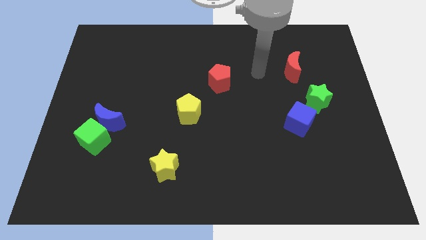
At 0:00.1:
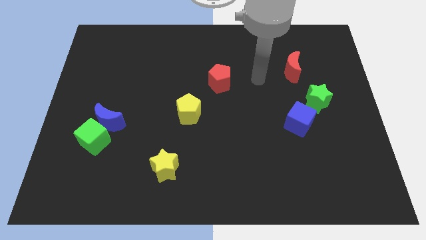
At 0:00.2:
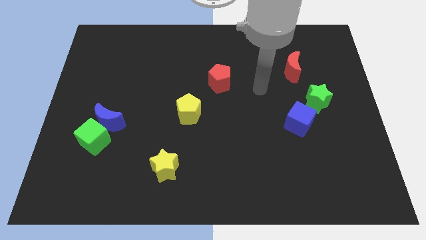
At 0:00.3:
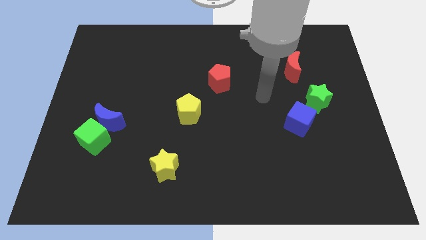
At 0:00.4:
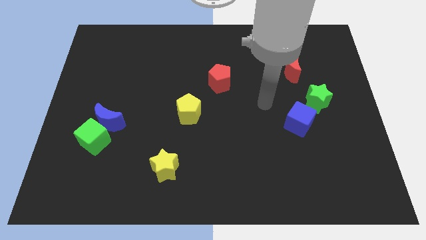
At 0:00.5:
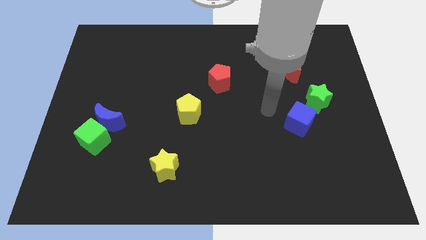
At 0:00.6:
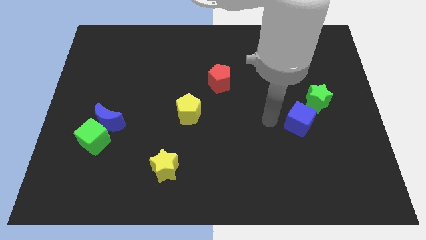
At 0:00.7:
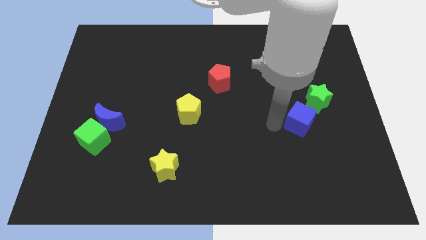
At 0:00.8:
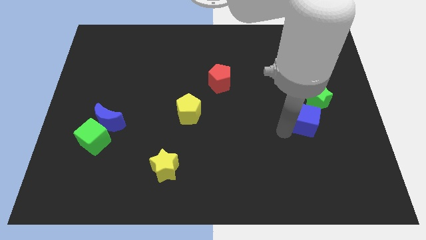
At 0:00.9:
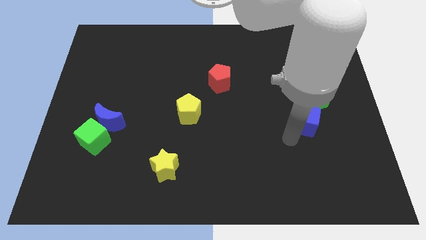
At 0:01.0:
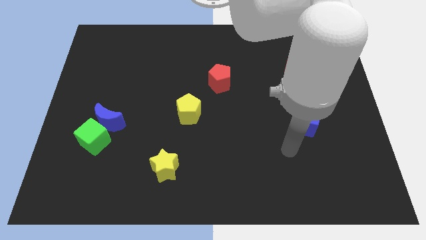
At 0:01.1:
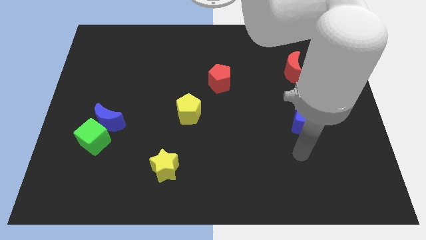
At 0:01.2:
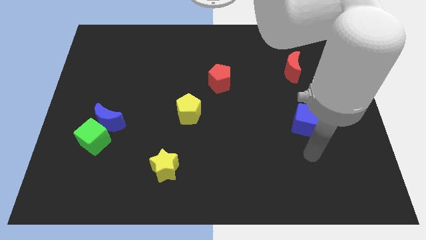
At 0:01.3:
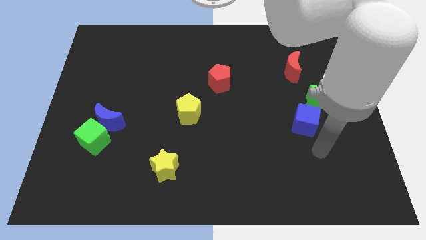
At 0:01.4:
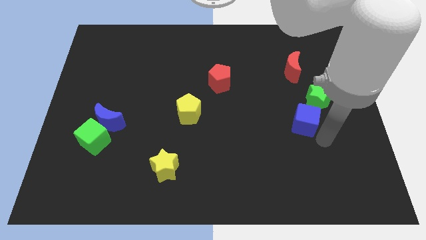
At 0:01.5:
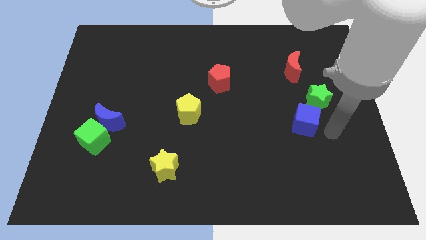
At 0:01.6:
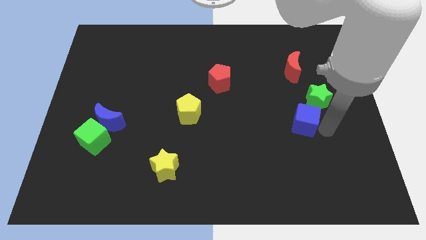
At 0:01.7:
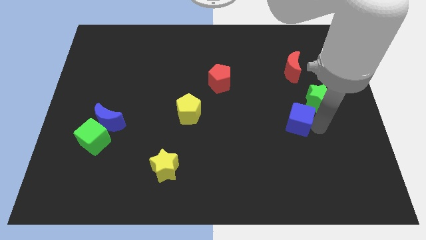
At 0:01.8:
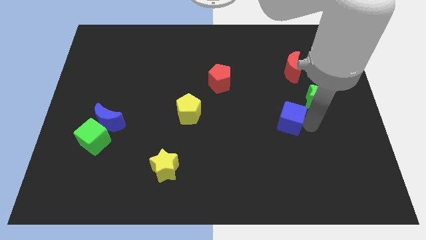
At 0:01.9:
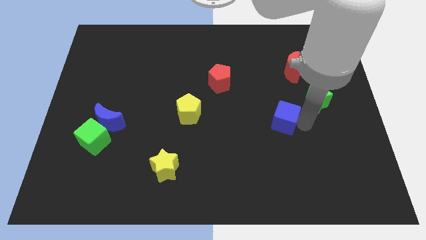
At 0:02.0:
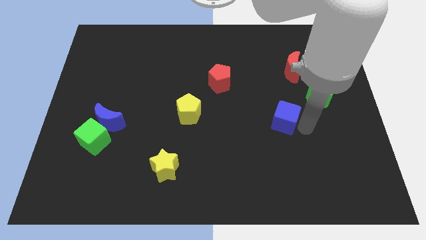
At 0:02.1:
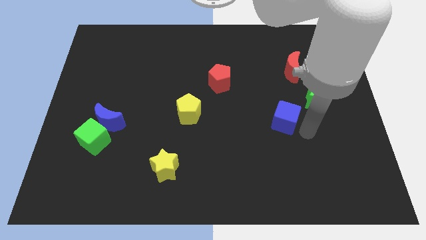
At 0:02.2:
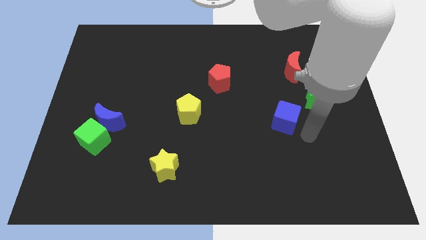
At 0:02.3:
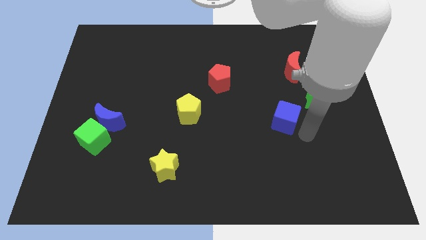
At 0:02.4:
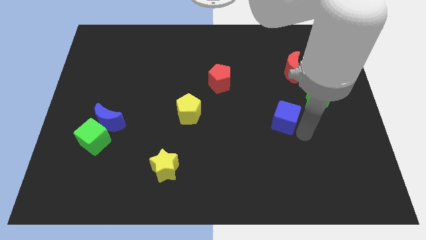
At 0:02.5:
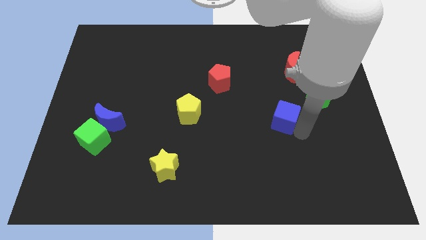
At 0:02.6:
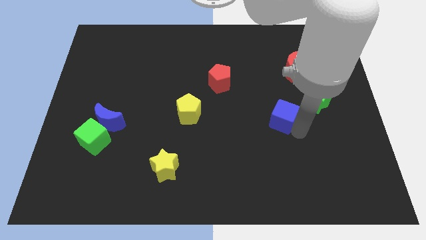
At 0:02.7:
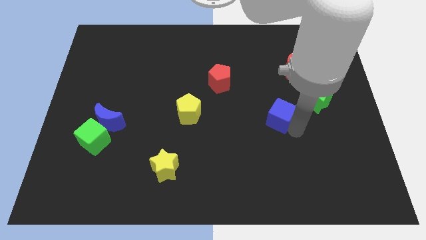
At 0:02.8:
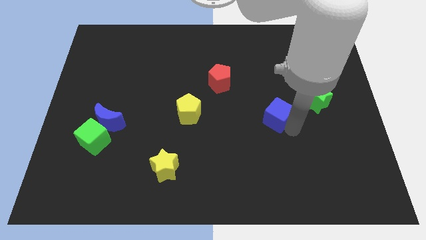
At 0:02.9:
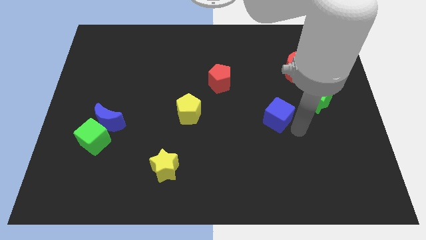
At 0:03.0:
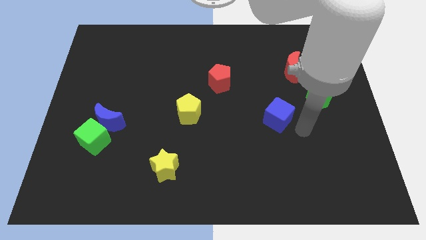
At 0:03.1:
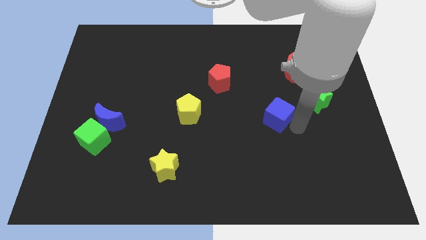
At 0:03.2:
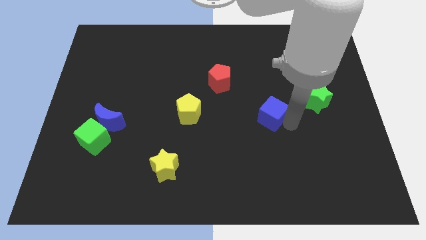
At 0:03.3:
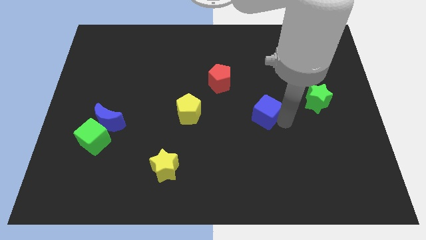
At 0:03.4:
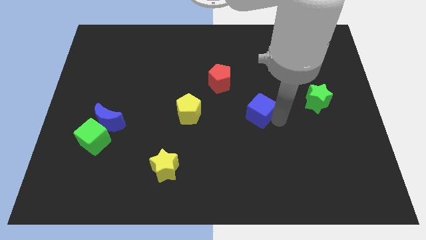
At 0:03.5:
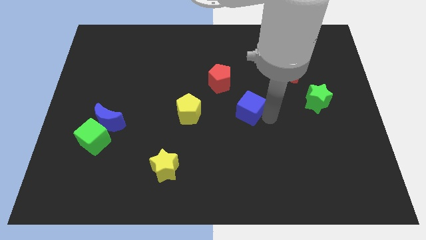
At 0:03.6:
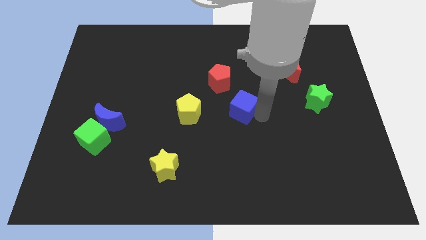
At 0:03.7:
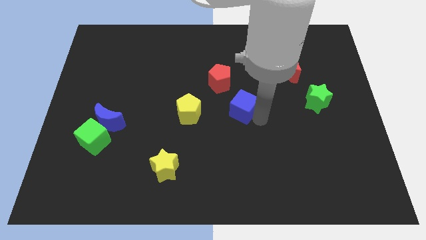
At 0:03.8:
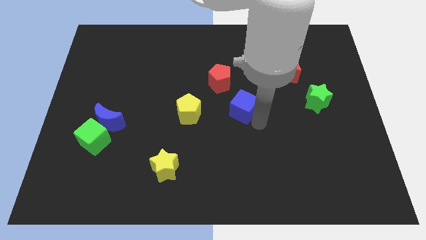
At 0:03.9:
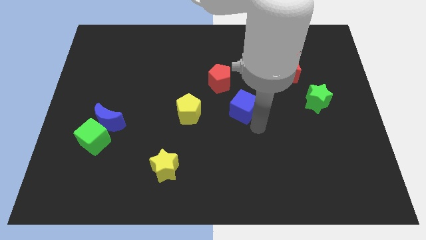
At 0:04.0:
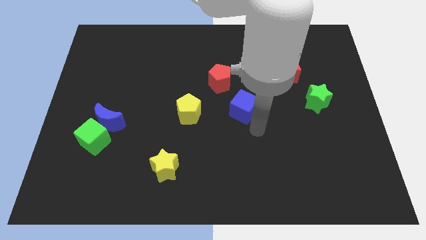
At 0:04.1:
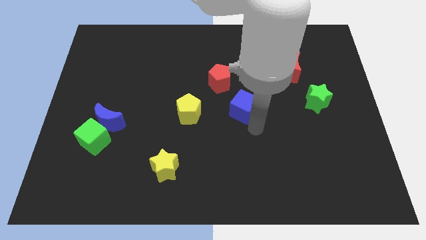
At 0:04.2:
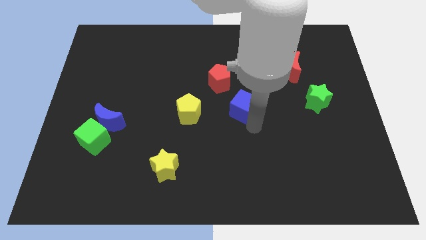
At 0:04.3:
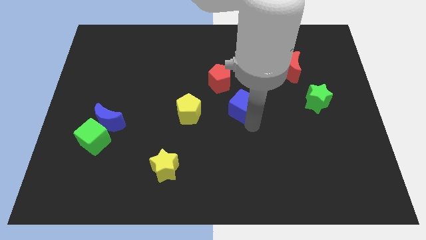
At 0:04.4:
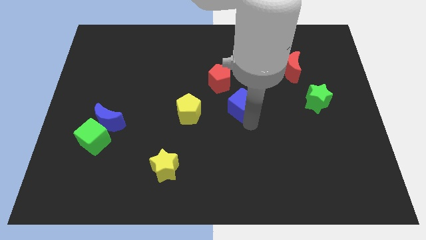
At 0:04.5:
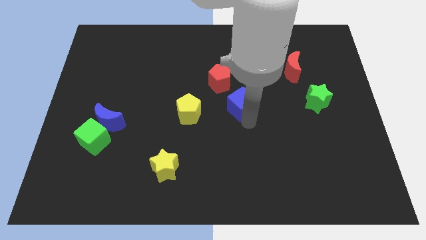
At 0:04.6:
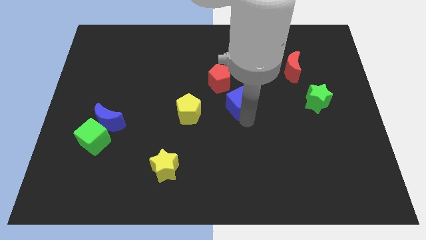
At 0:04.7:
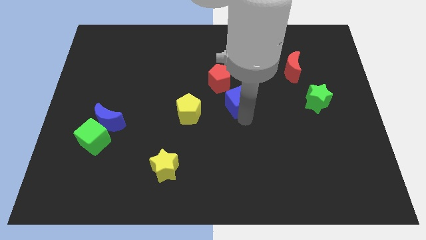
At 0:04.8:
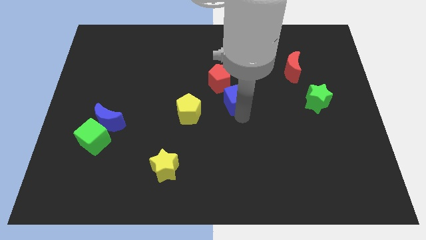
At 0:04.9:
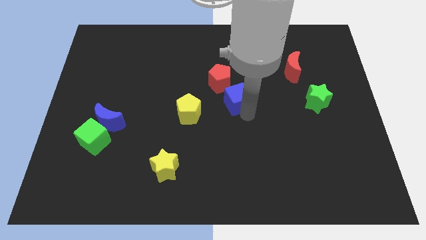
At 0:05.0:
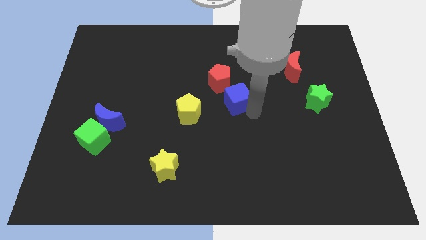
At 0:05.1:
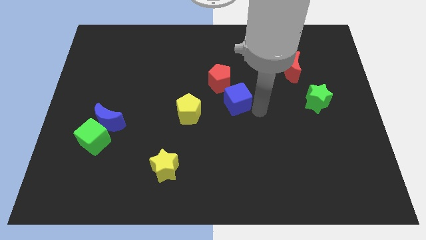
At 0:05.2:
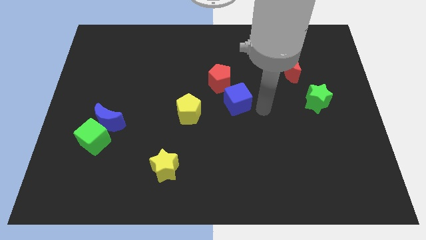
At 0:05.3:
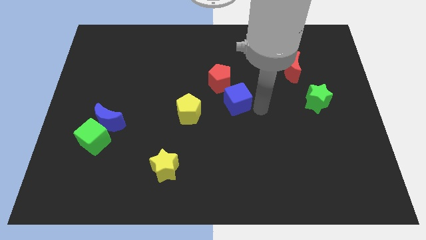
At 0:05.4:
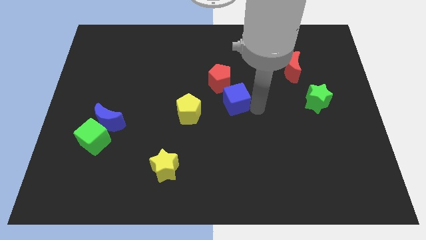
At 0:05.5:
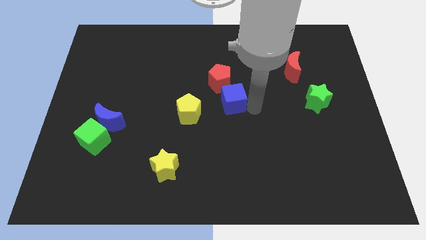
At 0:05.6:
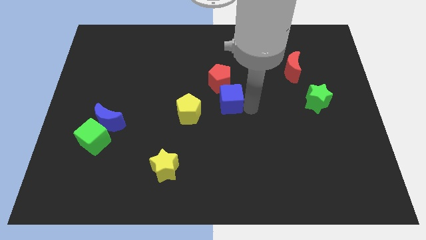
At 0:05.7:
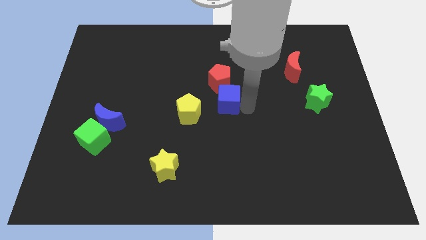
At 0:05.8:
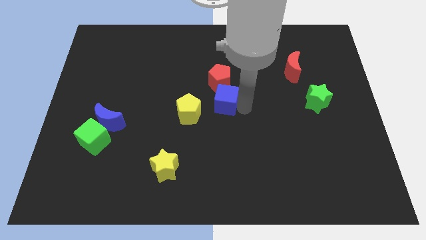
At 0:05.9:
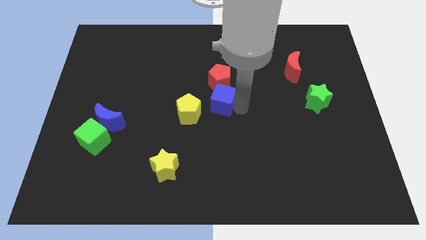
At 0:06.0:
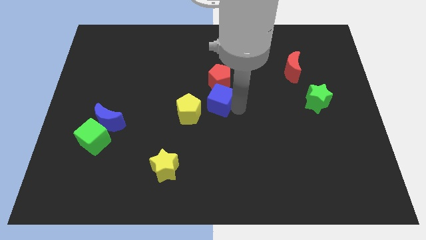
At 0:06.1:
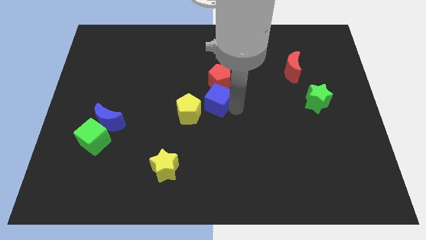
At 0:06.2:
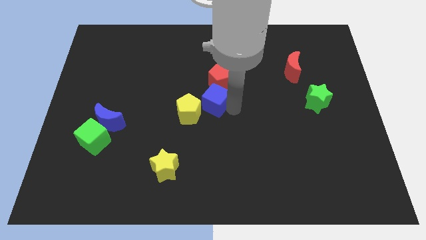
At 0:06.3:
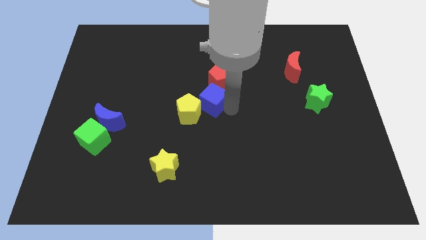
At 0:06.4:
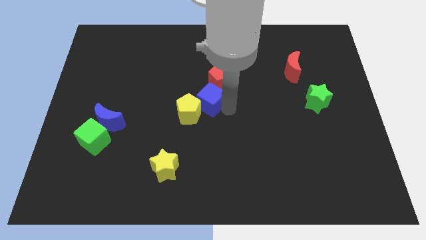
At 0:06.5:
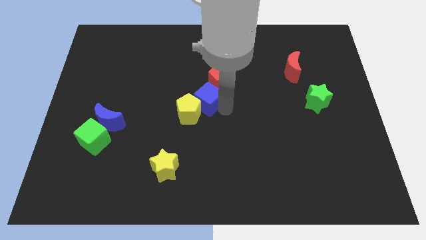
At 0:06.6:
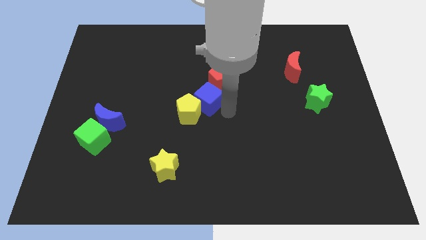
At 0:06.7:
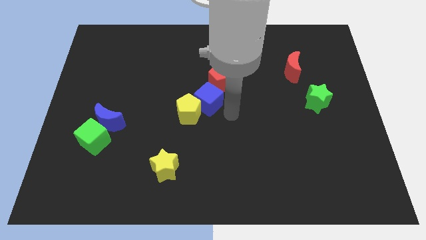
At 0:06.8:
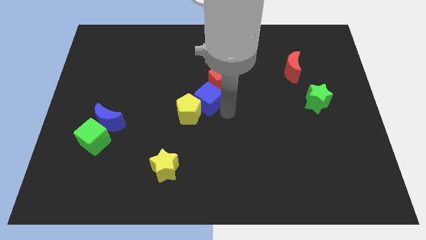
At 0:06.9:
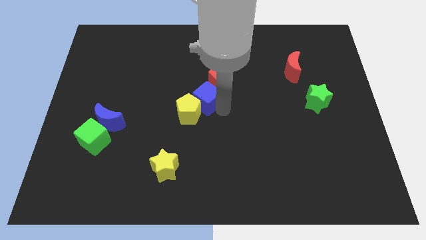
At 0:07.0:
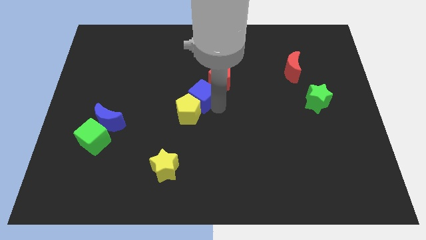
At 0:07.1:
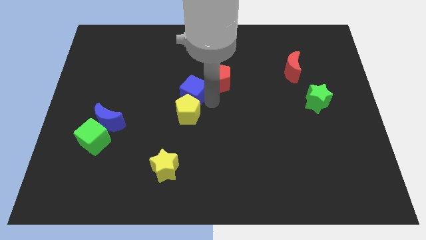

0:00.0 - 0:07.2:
move the blue cube to the top left side of the yellow pentagon

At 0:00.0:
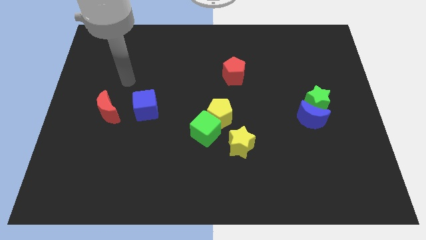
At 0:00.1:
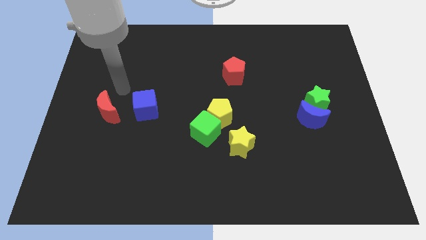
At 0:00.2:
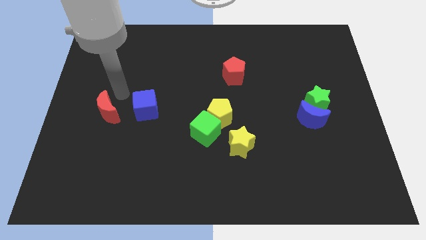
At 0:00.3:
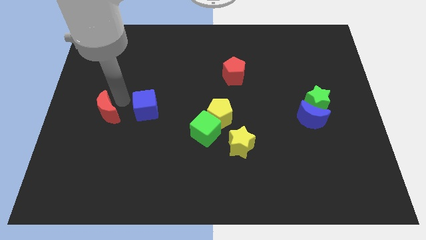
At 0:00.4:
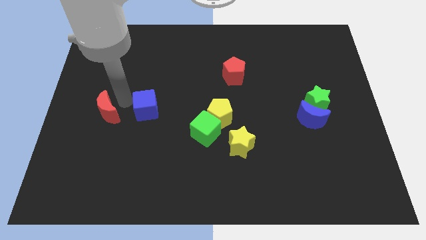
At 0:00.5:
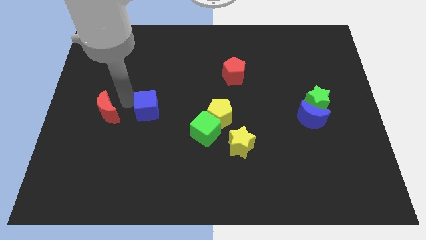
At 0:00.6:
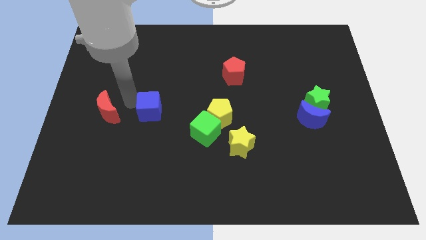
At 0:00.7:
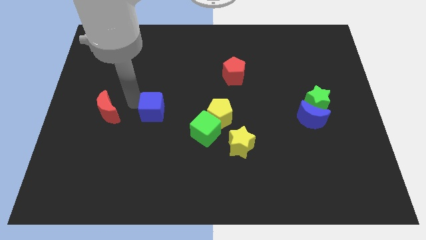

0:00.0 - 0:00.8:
push the blue cube to the left of the yellow pentagon

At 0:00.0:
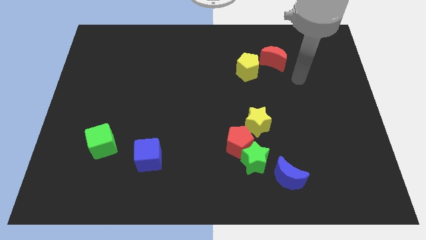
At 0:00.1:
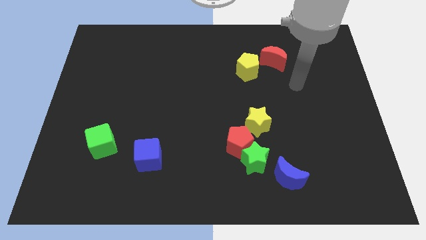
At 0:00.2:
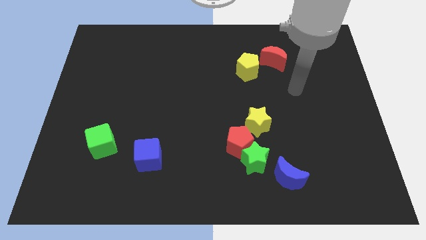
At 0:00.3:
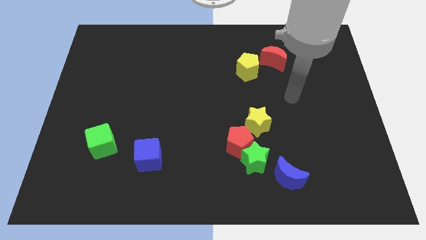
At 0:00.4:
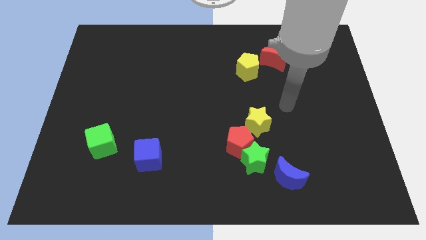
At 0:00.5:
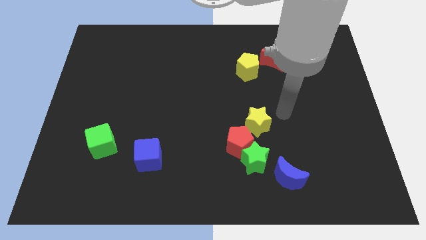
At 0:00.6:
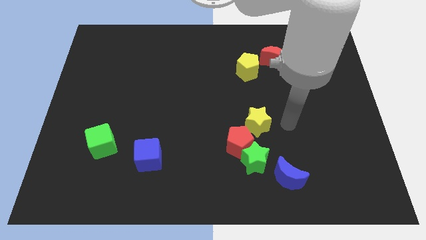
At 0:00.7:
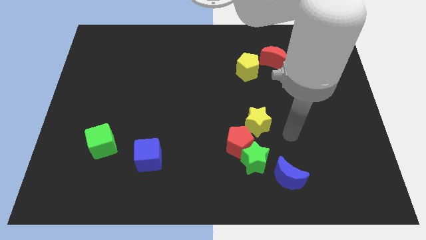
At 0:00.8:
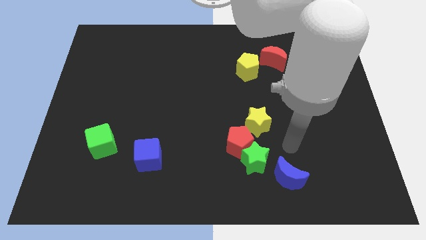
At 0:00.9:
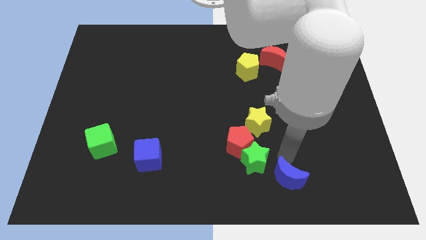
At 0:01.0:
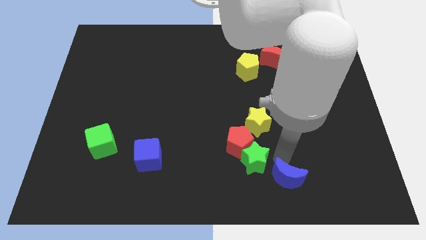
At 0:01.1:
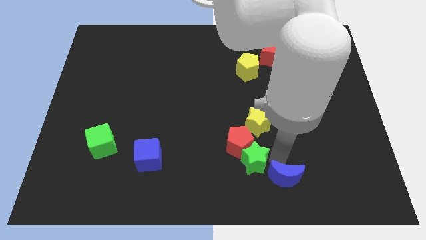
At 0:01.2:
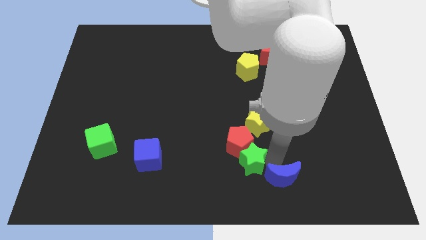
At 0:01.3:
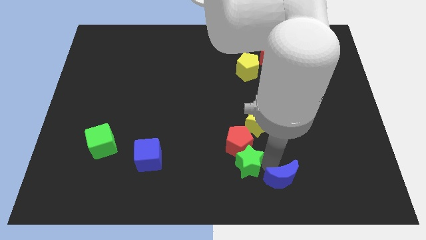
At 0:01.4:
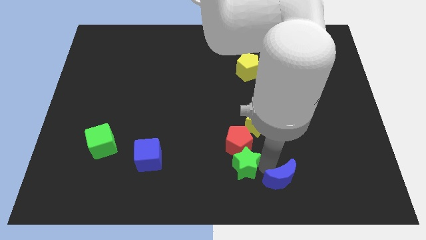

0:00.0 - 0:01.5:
move the green star to the bottom left of the red pentagon
